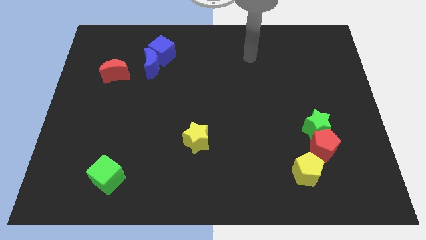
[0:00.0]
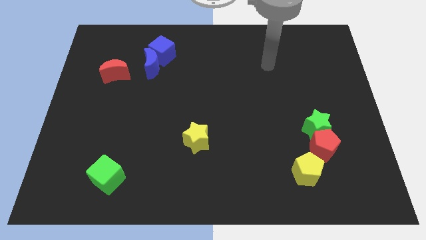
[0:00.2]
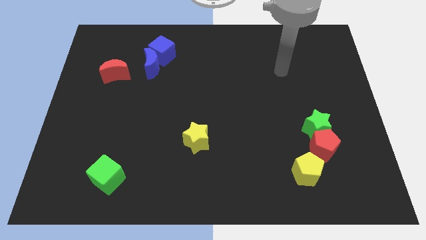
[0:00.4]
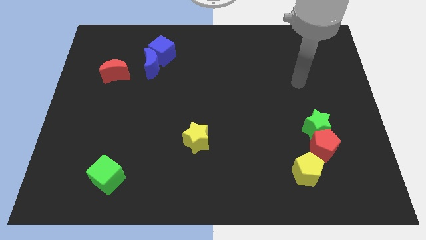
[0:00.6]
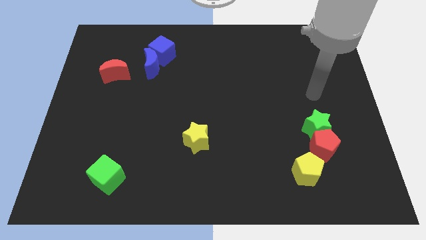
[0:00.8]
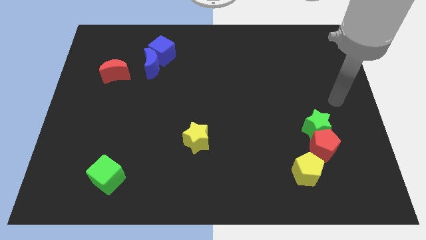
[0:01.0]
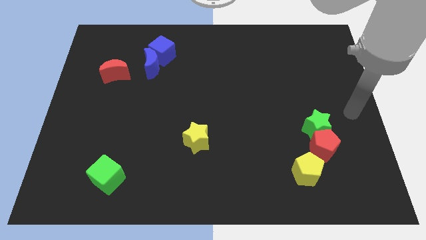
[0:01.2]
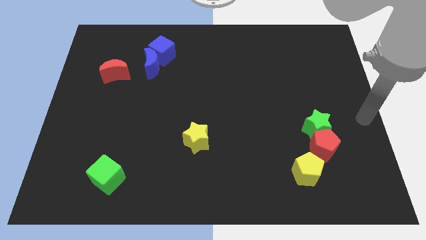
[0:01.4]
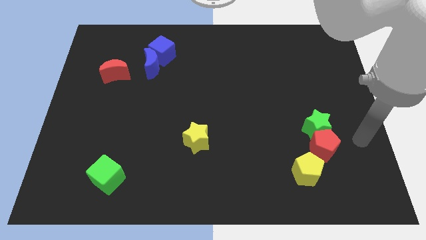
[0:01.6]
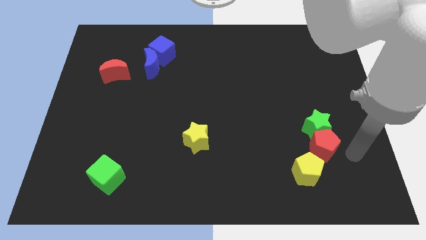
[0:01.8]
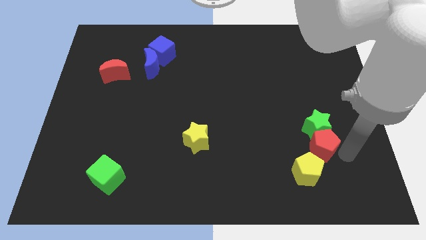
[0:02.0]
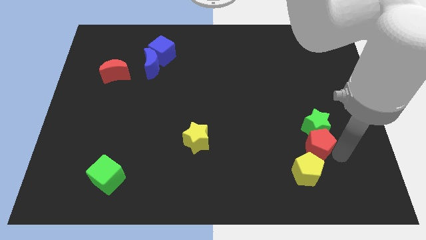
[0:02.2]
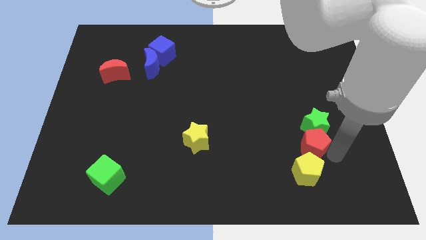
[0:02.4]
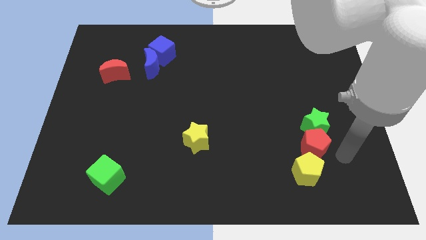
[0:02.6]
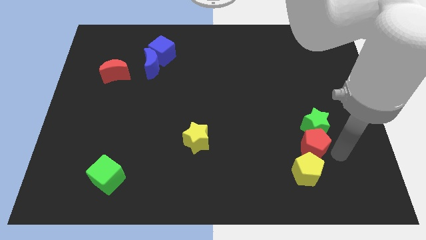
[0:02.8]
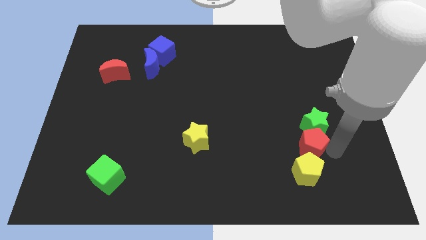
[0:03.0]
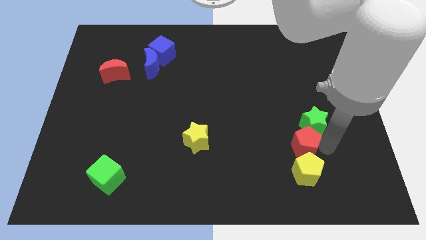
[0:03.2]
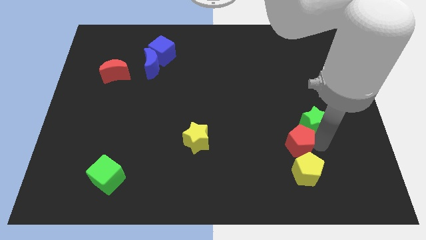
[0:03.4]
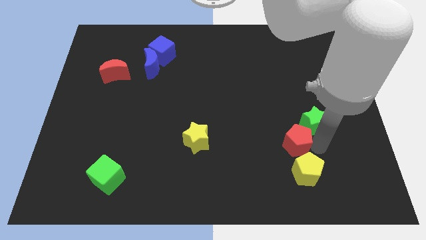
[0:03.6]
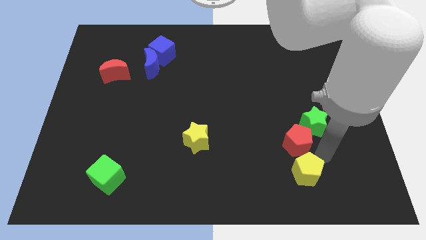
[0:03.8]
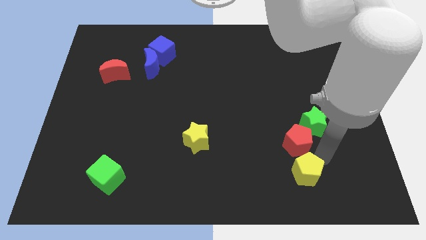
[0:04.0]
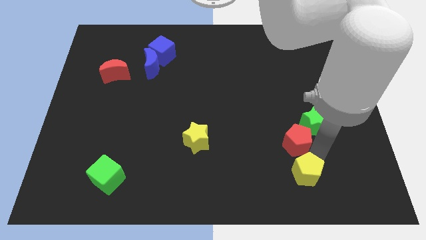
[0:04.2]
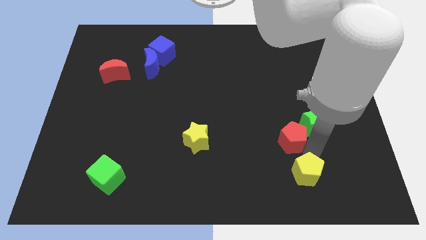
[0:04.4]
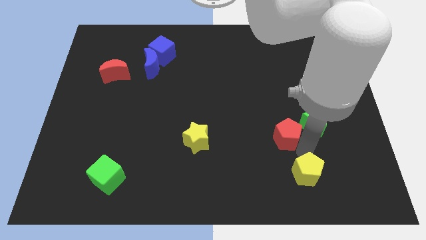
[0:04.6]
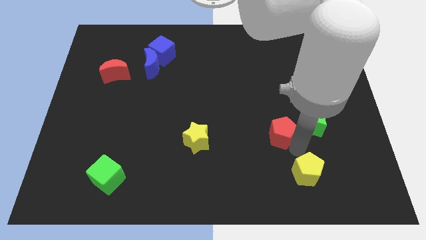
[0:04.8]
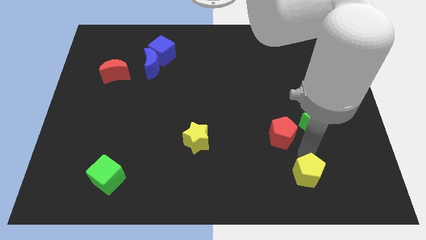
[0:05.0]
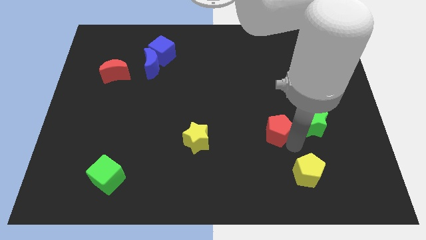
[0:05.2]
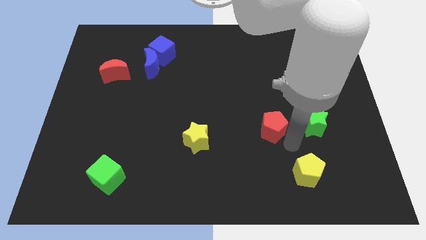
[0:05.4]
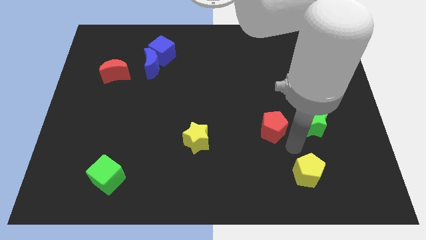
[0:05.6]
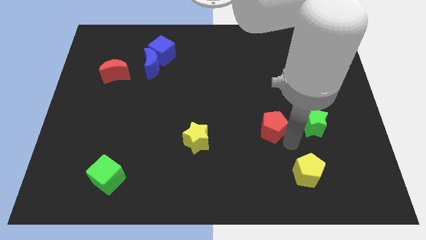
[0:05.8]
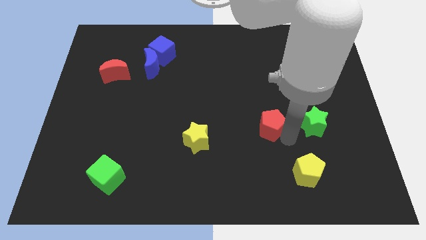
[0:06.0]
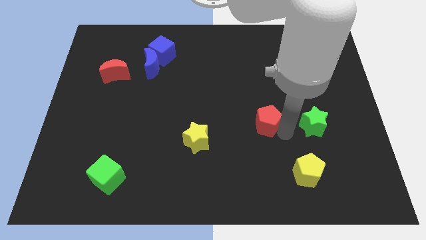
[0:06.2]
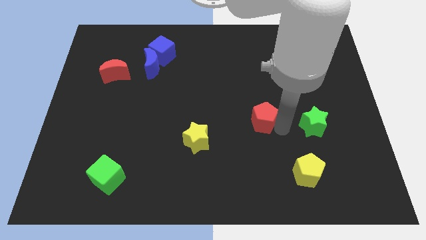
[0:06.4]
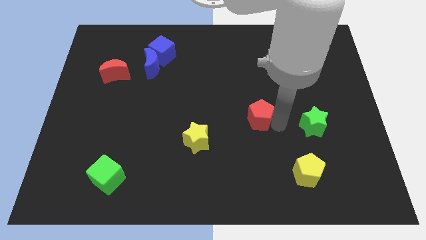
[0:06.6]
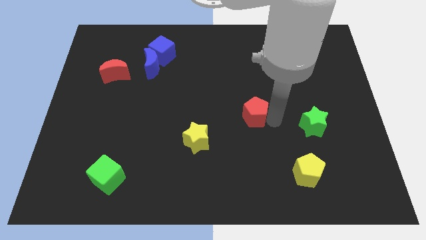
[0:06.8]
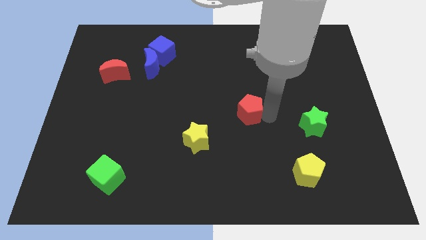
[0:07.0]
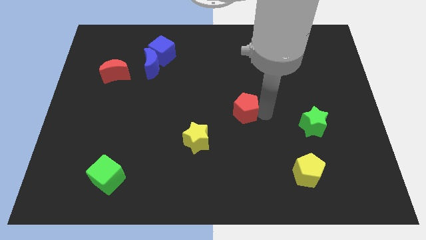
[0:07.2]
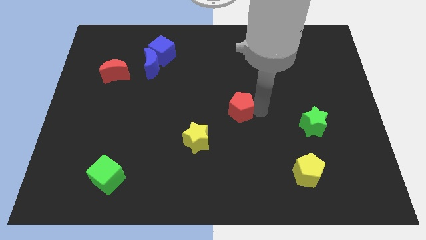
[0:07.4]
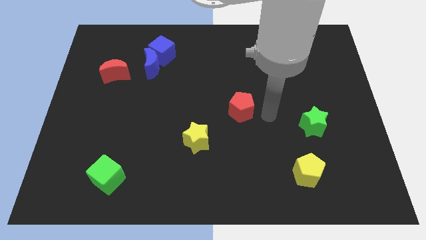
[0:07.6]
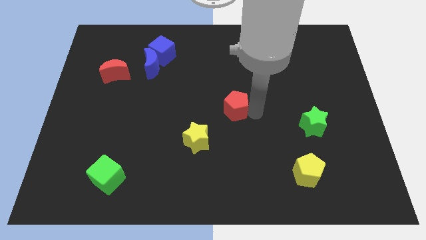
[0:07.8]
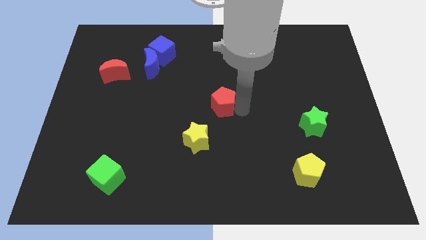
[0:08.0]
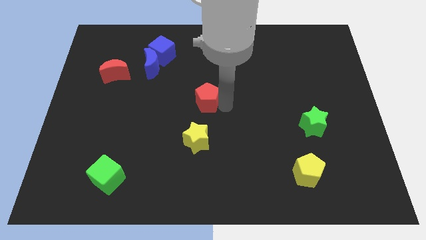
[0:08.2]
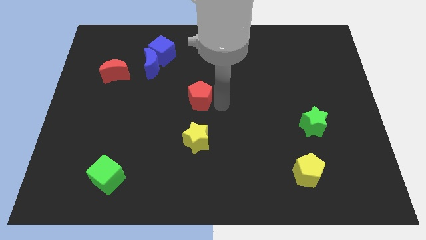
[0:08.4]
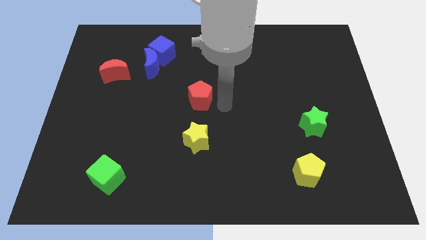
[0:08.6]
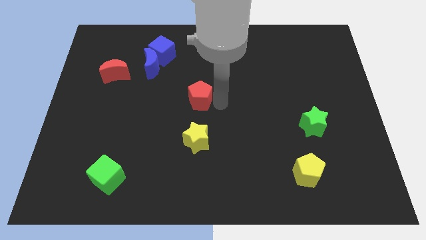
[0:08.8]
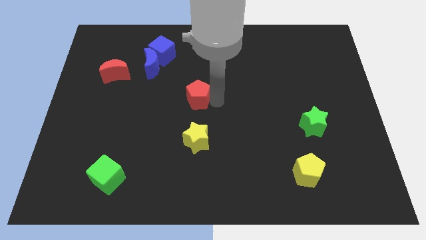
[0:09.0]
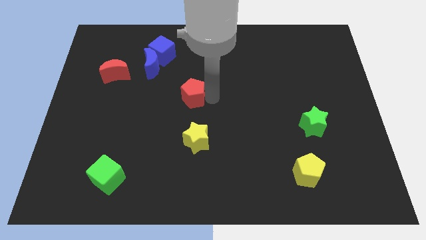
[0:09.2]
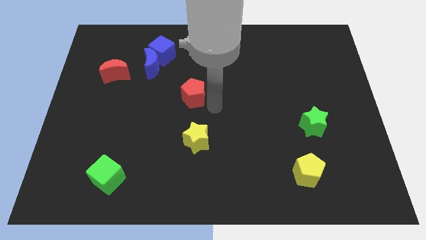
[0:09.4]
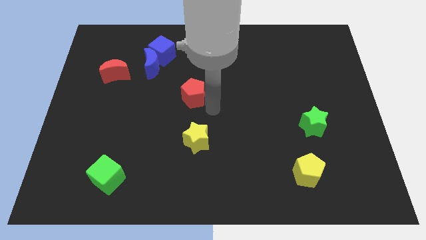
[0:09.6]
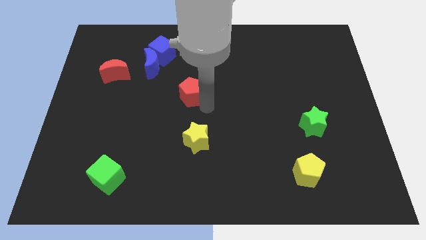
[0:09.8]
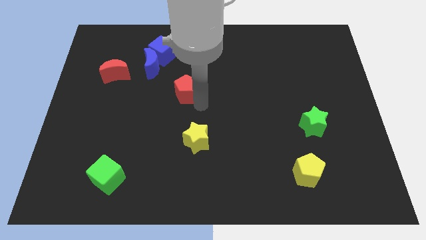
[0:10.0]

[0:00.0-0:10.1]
move the red pentagon diagonally down and to the right of the blue moon

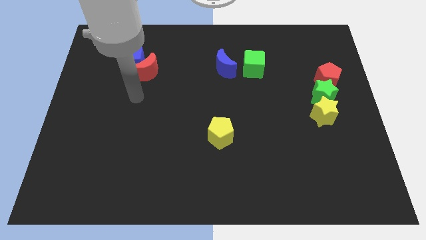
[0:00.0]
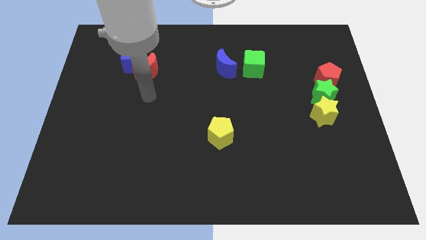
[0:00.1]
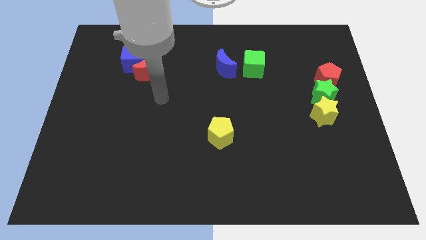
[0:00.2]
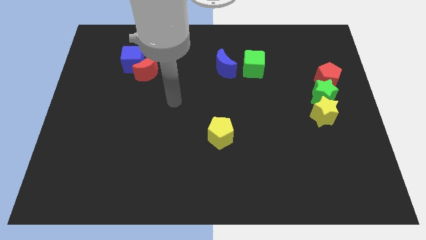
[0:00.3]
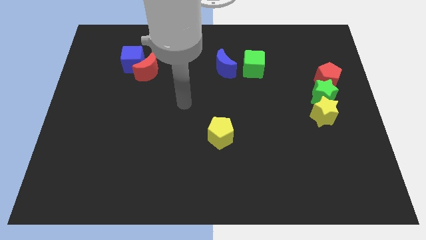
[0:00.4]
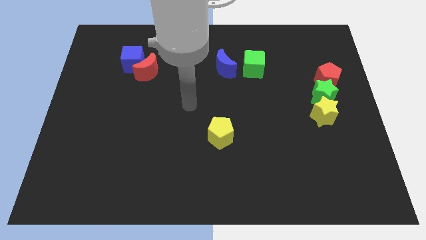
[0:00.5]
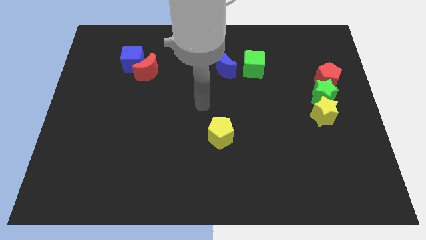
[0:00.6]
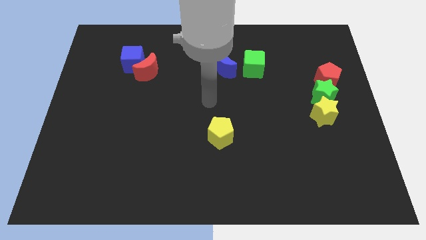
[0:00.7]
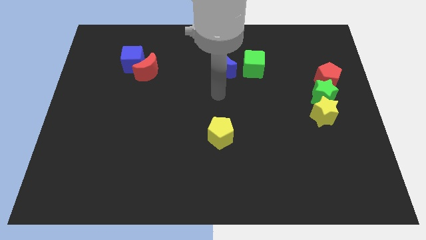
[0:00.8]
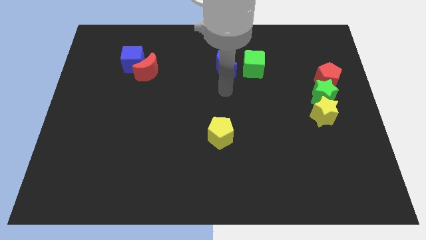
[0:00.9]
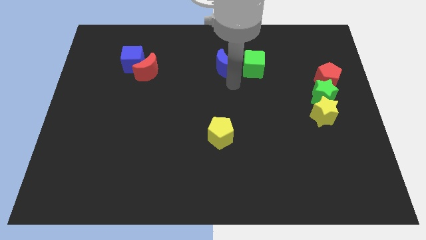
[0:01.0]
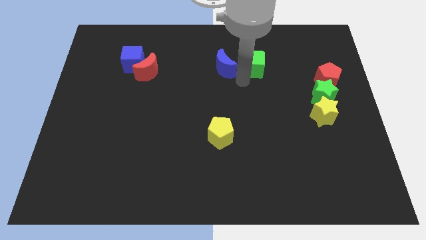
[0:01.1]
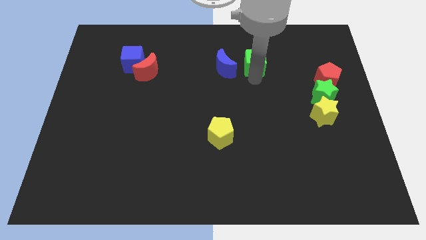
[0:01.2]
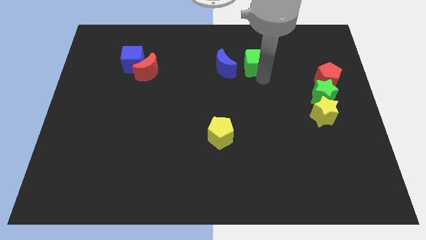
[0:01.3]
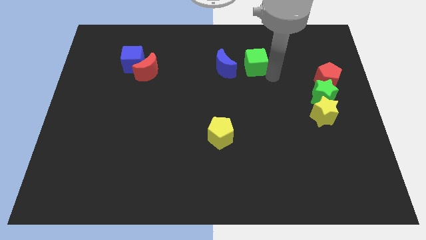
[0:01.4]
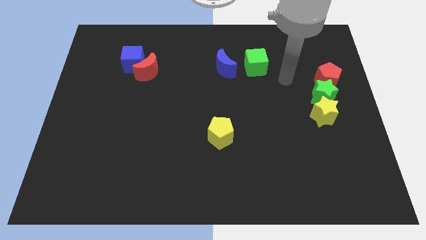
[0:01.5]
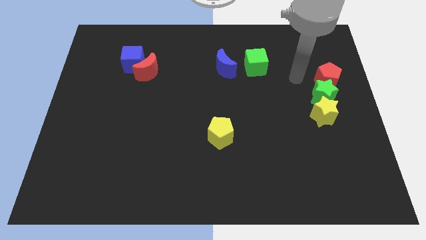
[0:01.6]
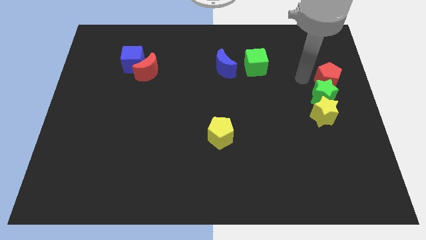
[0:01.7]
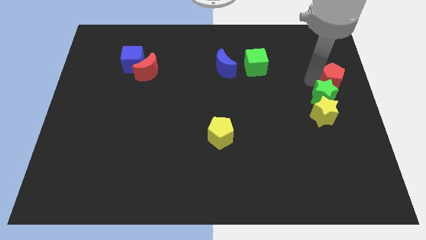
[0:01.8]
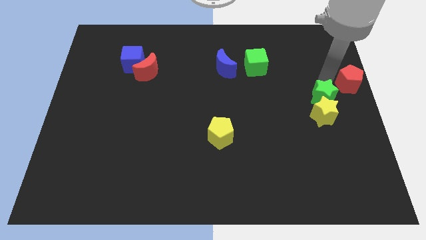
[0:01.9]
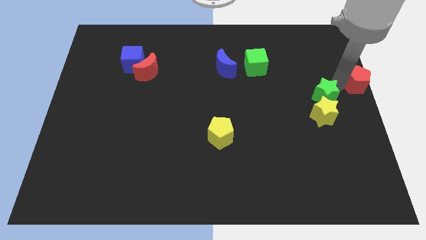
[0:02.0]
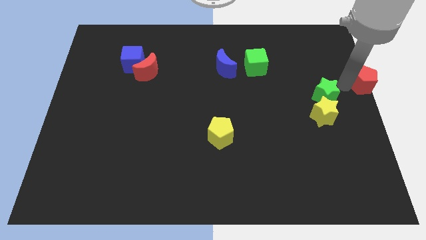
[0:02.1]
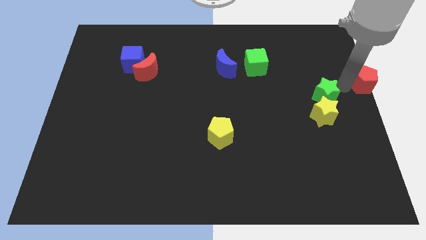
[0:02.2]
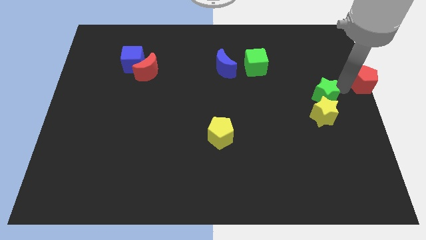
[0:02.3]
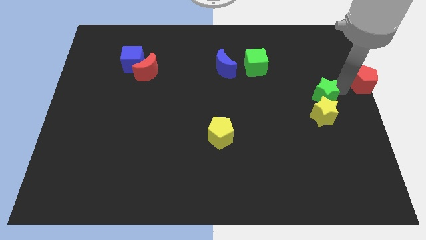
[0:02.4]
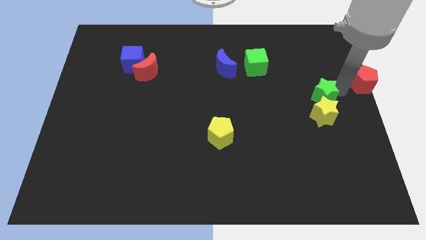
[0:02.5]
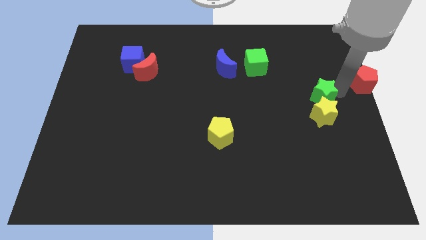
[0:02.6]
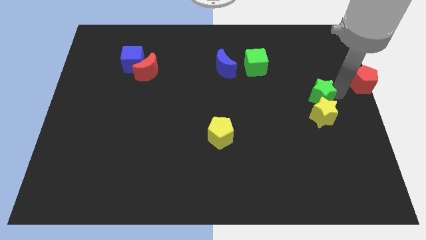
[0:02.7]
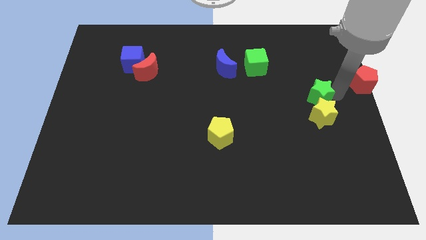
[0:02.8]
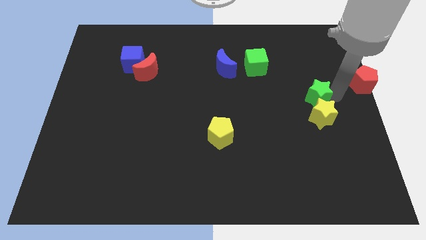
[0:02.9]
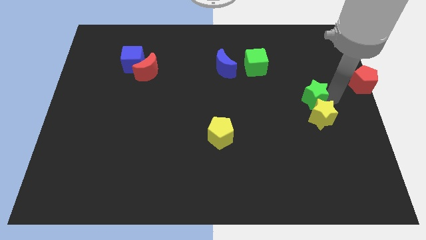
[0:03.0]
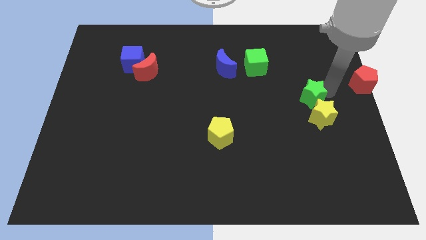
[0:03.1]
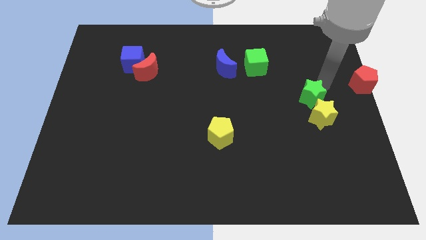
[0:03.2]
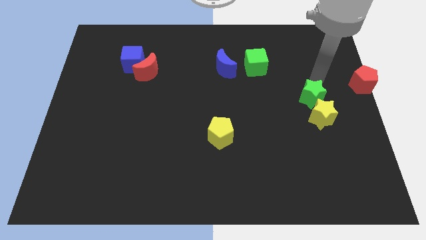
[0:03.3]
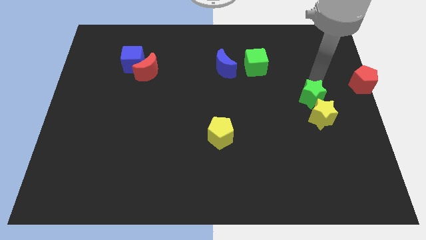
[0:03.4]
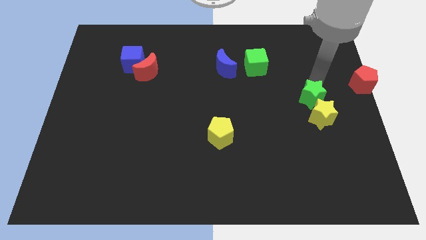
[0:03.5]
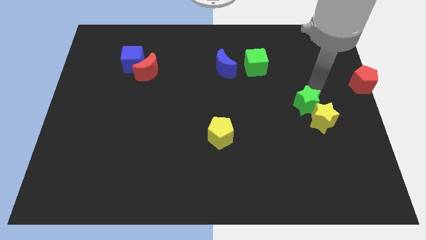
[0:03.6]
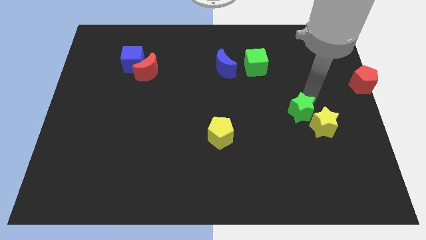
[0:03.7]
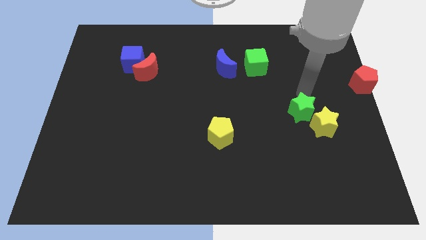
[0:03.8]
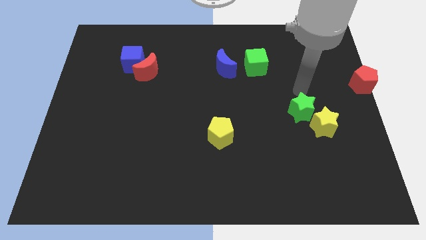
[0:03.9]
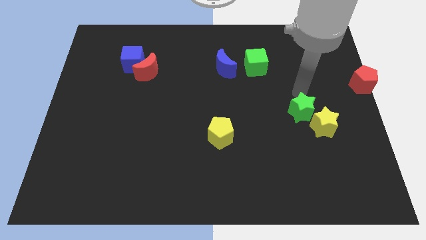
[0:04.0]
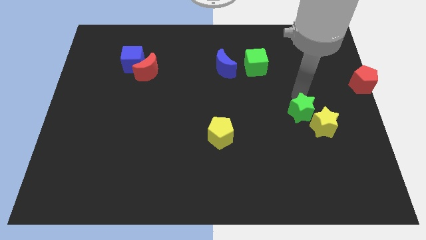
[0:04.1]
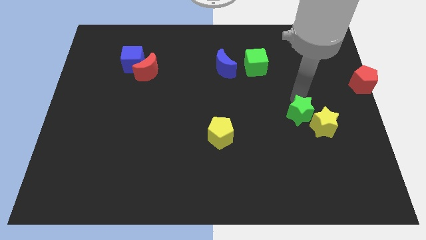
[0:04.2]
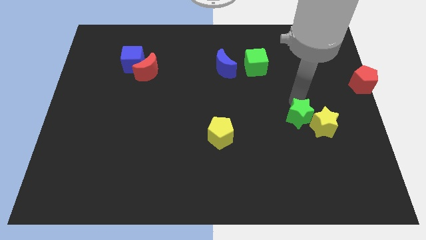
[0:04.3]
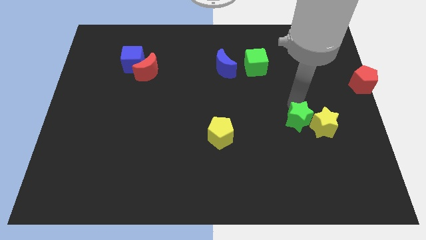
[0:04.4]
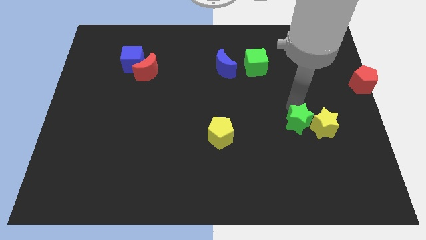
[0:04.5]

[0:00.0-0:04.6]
slide the green star to the bottom left of the yellow star
